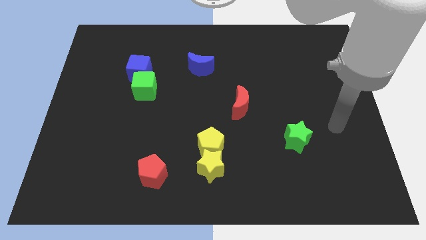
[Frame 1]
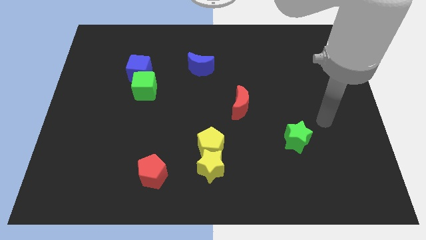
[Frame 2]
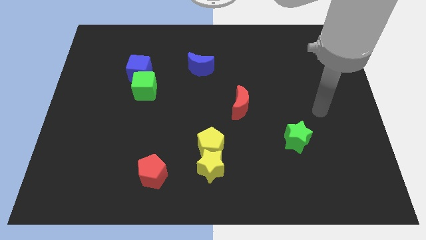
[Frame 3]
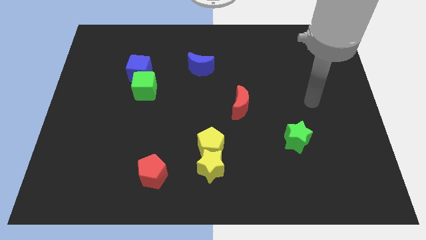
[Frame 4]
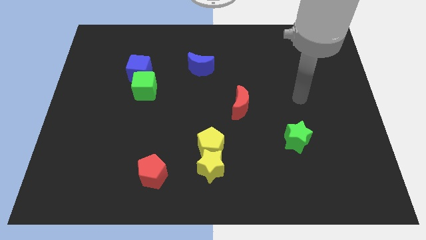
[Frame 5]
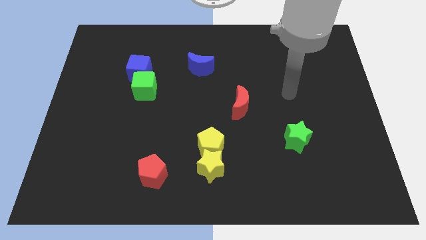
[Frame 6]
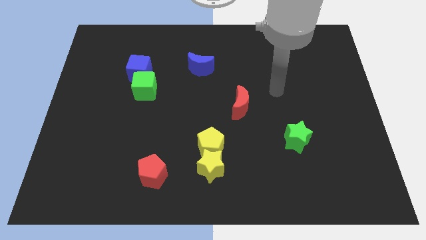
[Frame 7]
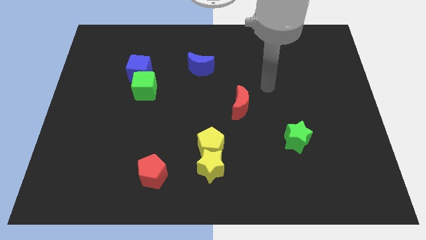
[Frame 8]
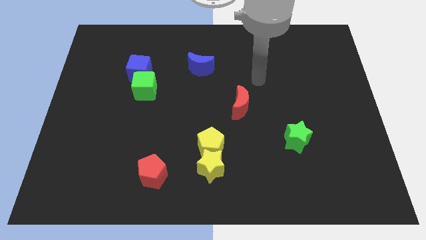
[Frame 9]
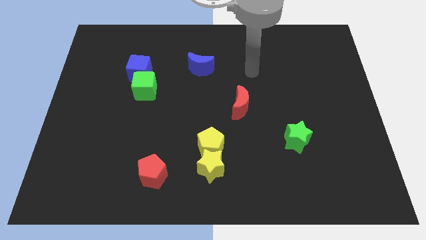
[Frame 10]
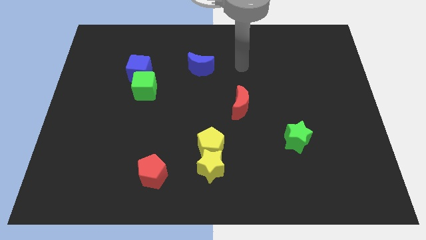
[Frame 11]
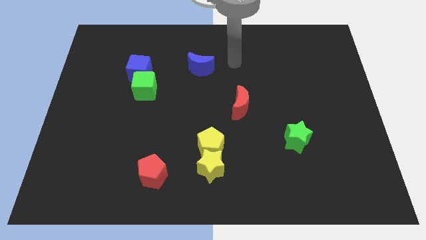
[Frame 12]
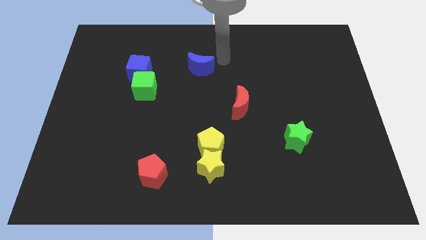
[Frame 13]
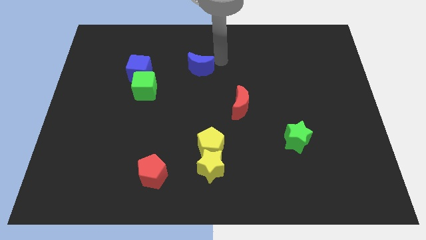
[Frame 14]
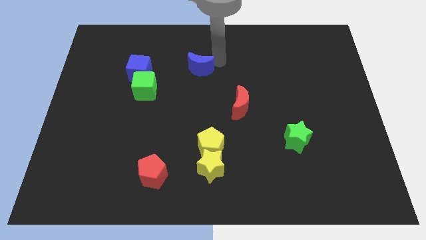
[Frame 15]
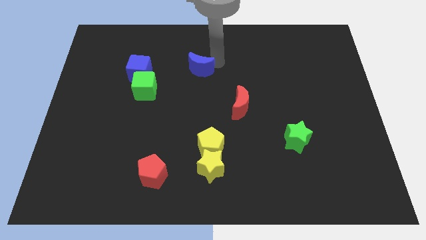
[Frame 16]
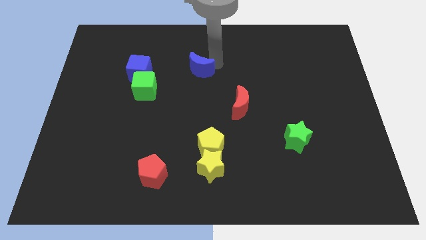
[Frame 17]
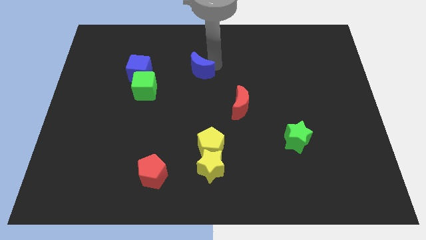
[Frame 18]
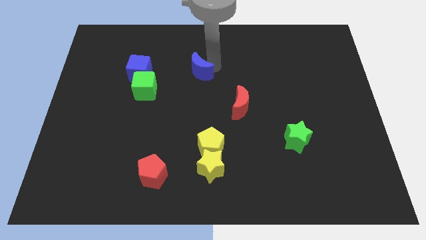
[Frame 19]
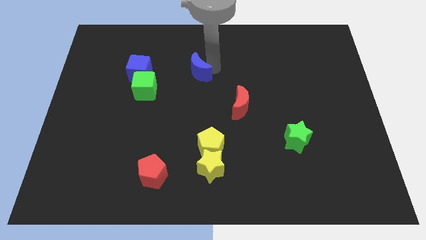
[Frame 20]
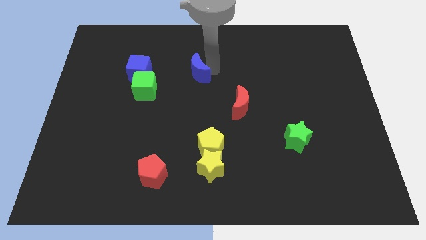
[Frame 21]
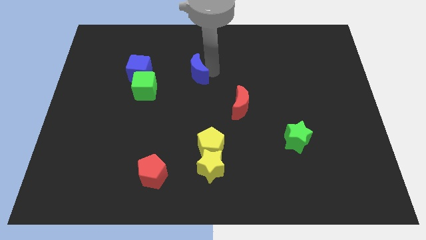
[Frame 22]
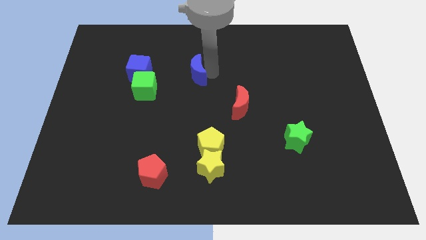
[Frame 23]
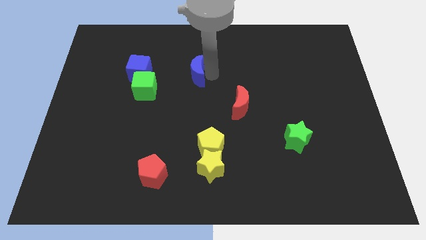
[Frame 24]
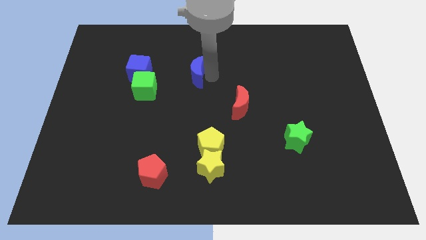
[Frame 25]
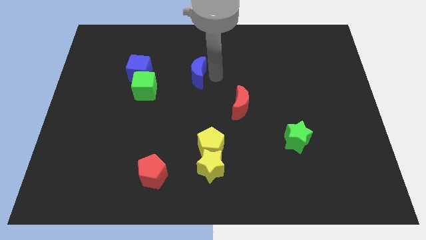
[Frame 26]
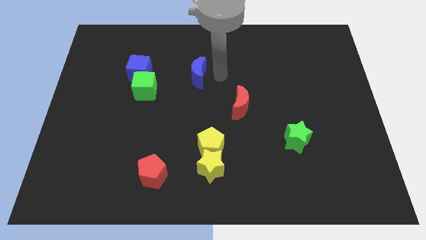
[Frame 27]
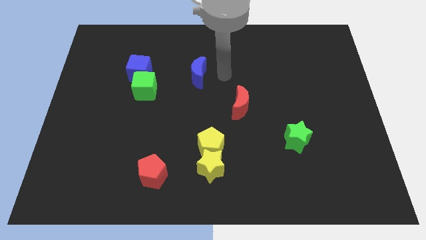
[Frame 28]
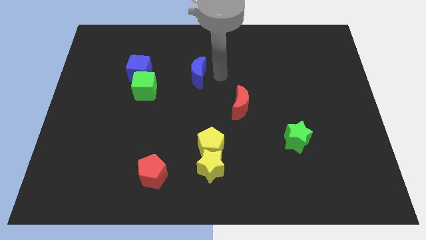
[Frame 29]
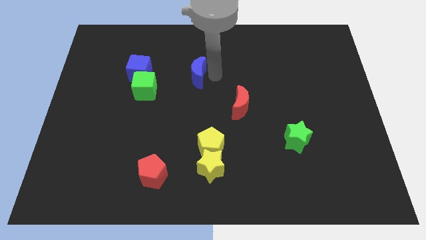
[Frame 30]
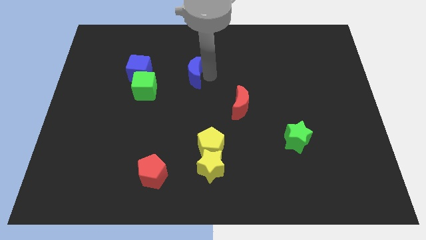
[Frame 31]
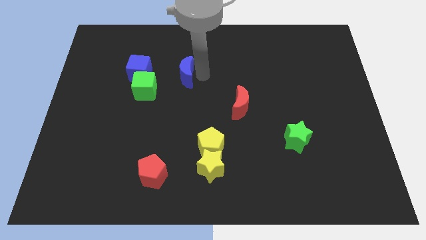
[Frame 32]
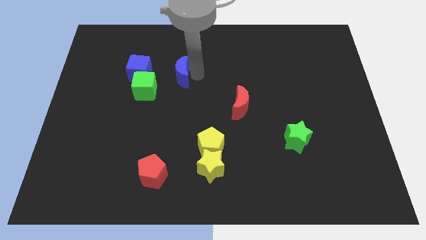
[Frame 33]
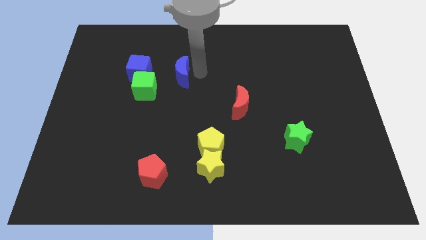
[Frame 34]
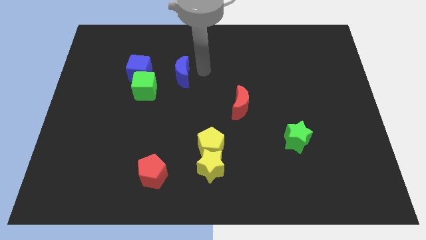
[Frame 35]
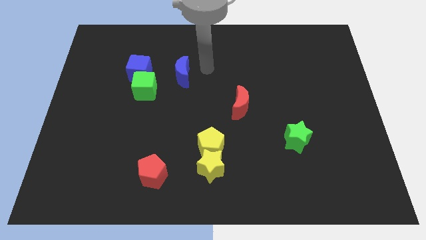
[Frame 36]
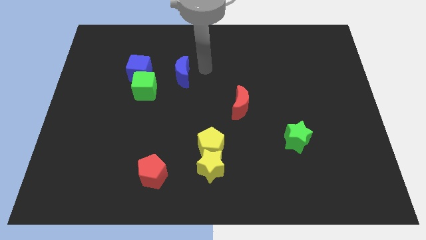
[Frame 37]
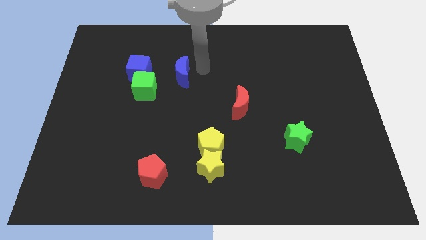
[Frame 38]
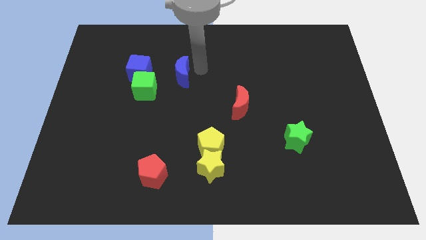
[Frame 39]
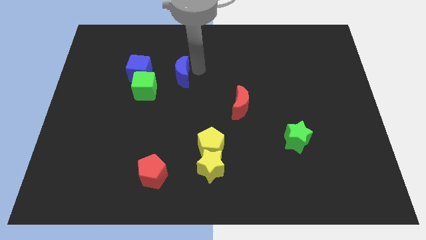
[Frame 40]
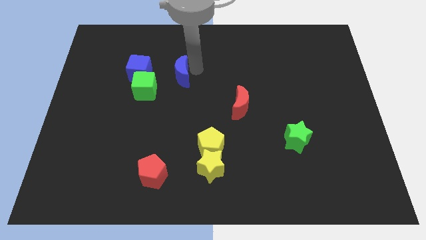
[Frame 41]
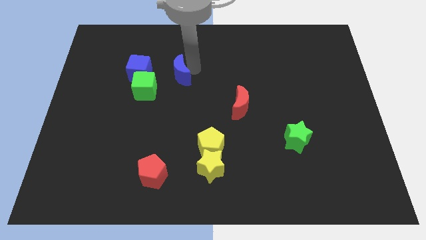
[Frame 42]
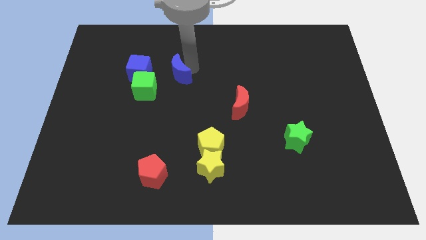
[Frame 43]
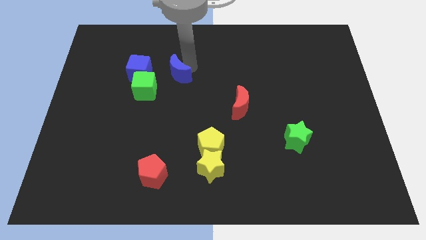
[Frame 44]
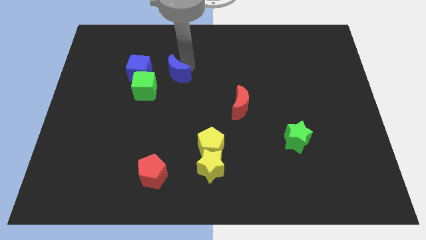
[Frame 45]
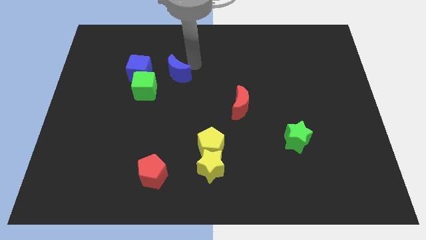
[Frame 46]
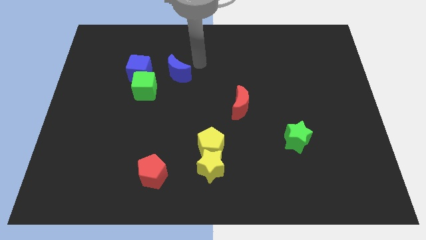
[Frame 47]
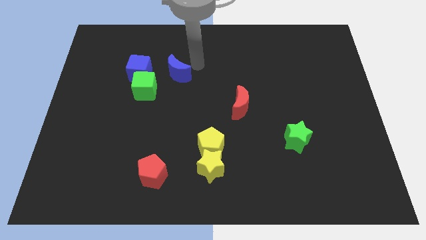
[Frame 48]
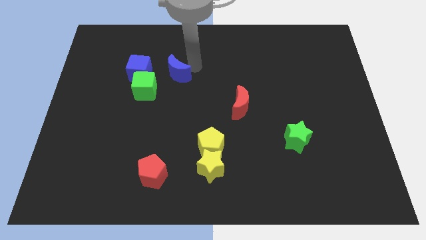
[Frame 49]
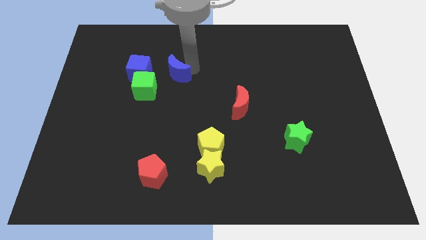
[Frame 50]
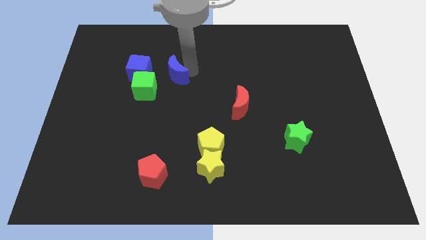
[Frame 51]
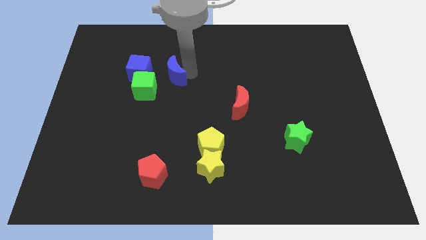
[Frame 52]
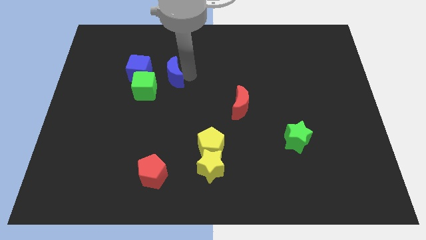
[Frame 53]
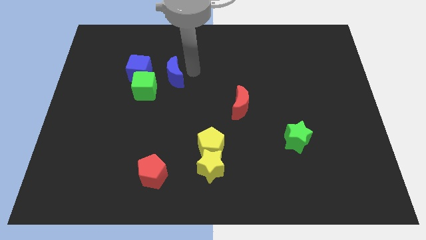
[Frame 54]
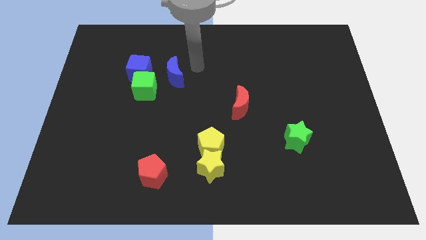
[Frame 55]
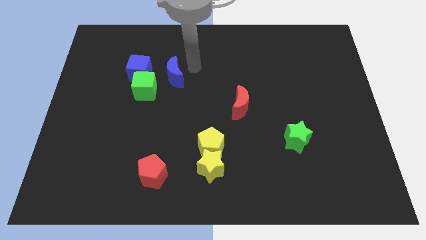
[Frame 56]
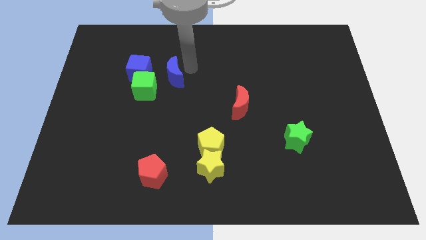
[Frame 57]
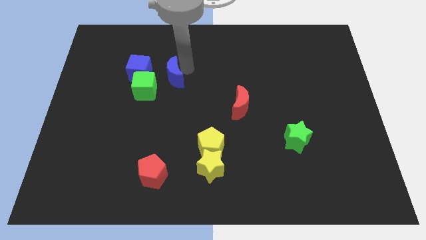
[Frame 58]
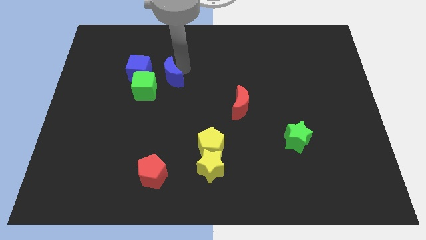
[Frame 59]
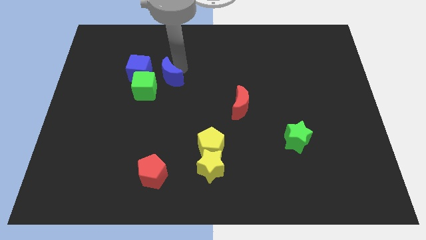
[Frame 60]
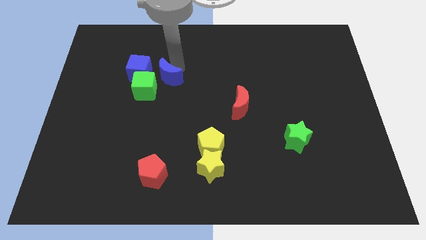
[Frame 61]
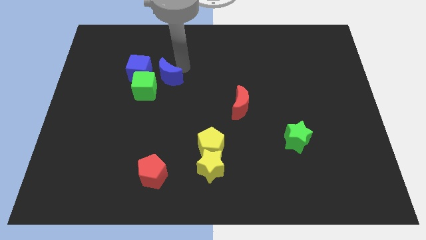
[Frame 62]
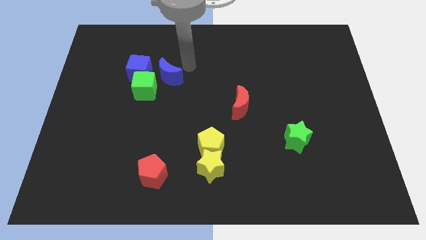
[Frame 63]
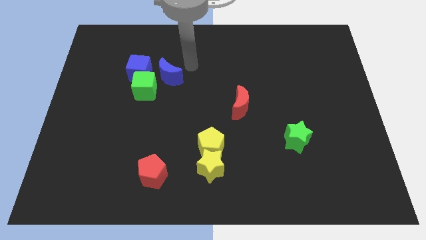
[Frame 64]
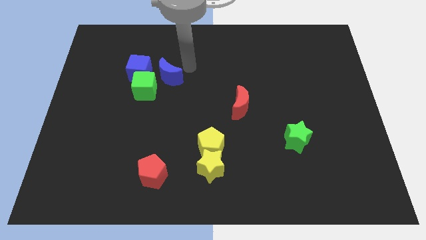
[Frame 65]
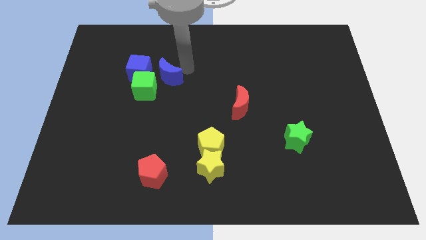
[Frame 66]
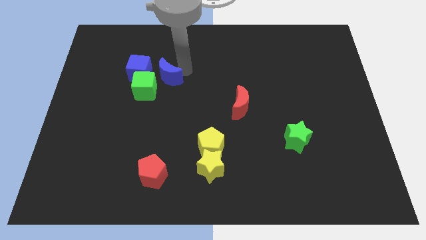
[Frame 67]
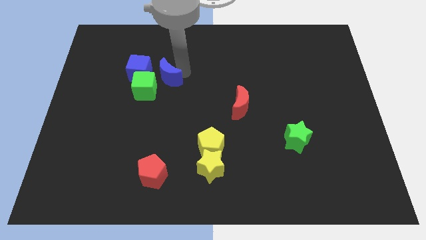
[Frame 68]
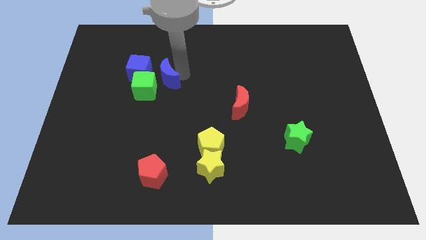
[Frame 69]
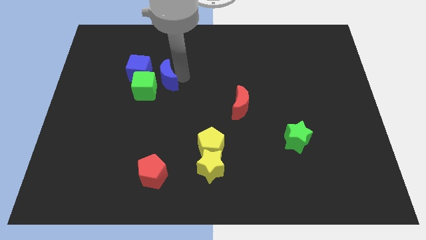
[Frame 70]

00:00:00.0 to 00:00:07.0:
move the blue moon close to the green cube
